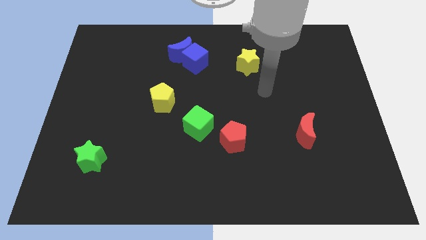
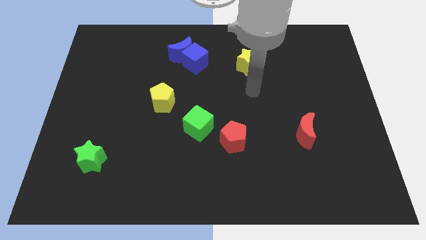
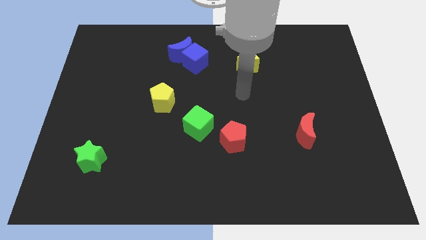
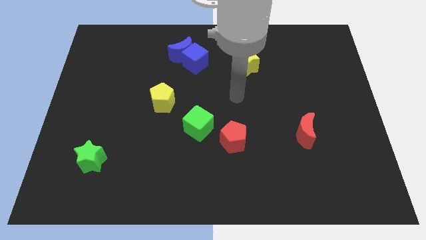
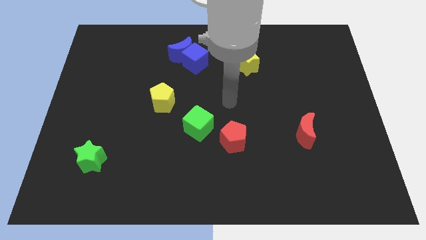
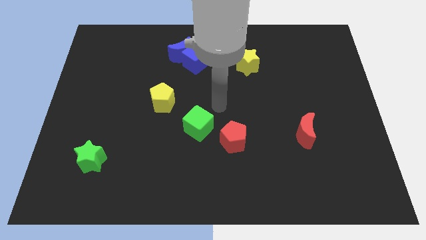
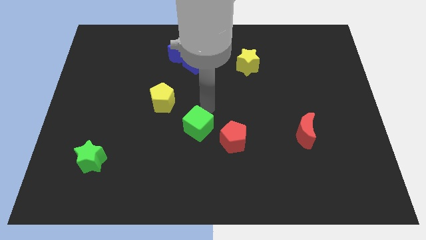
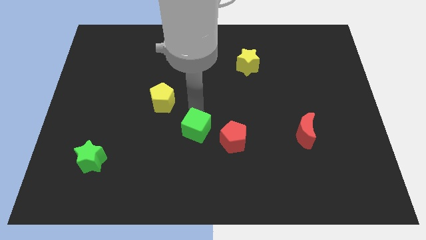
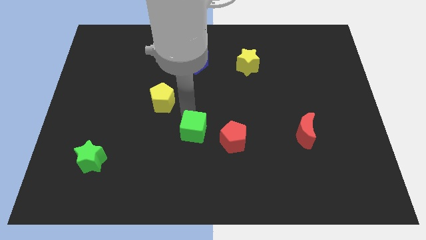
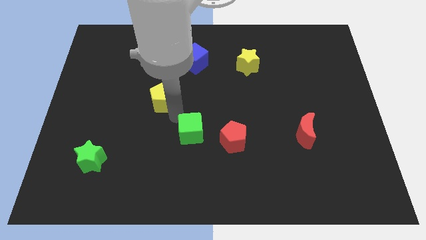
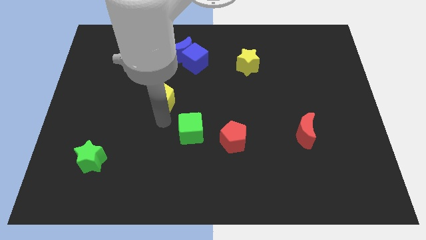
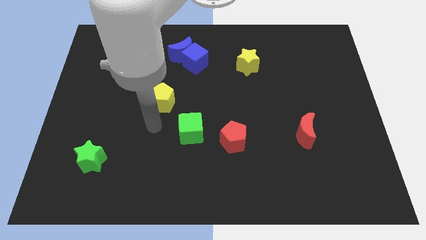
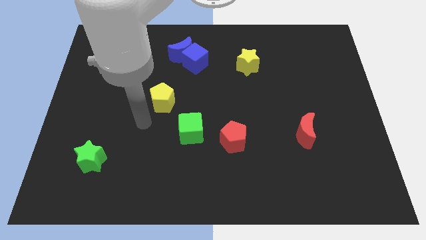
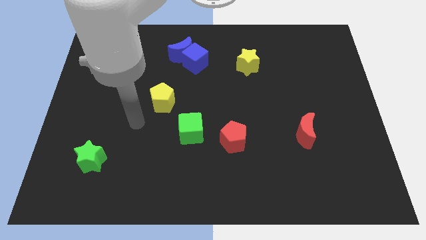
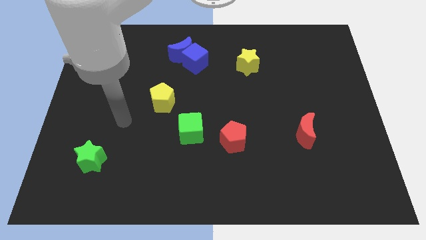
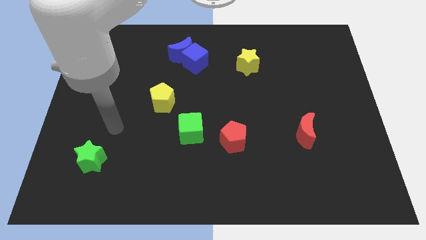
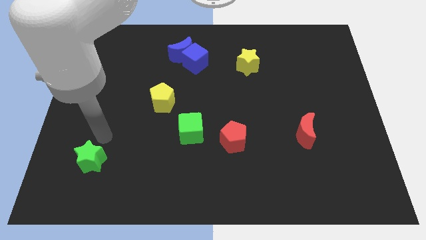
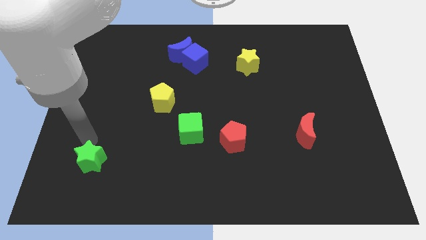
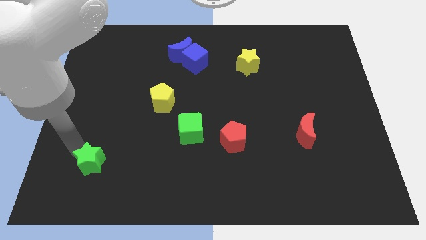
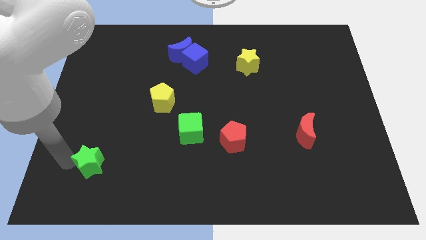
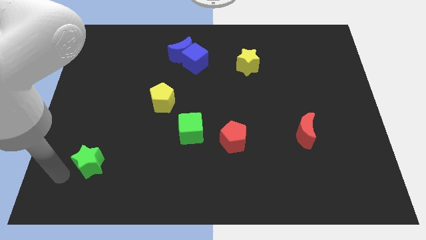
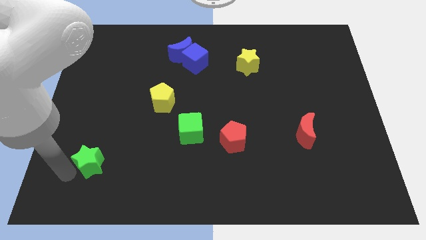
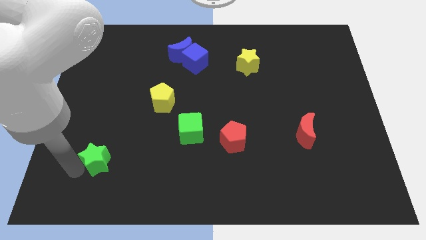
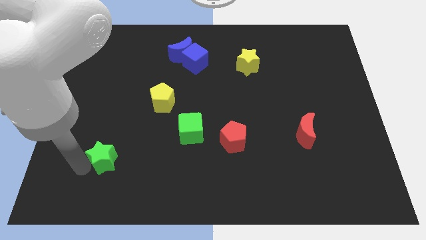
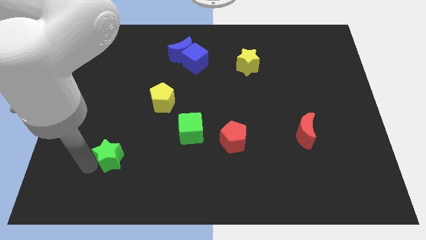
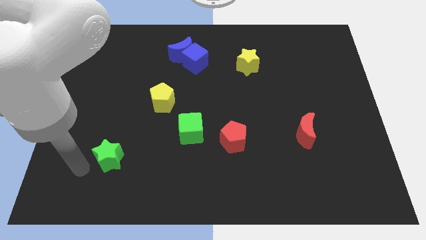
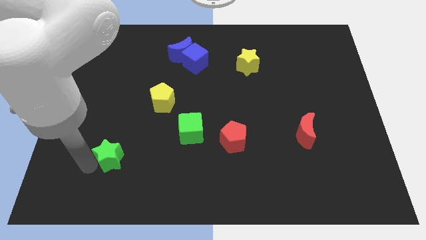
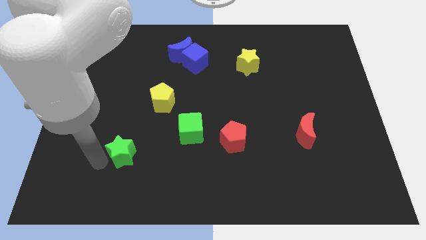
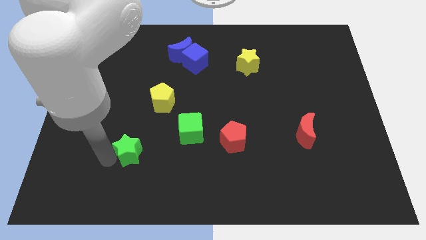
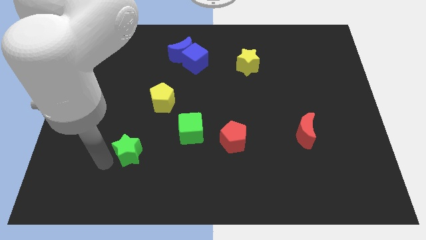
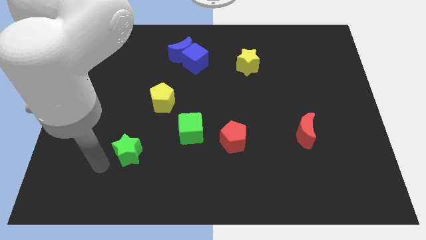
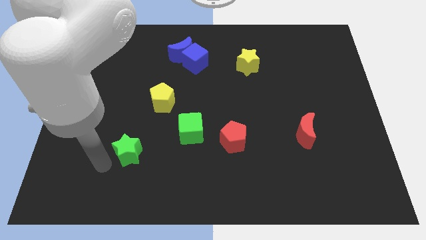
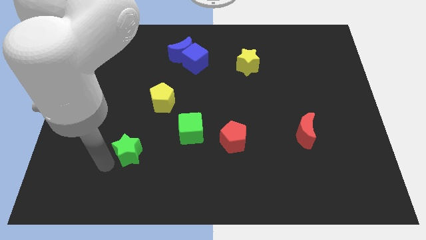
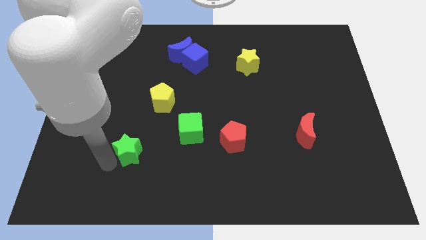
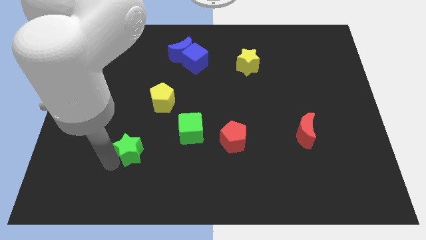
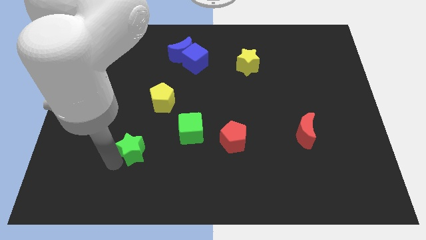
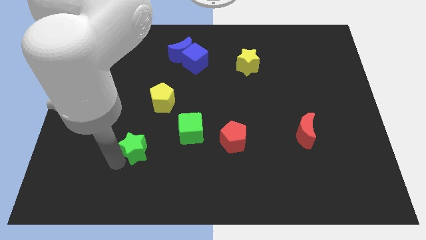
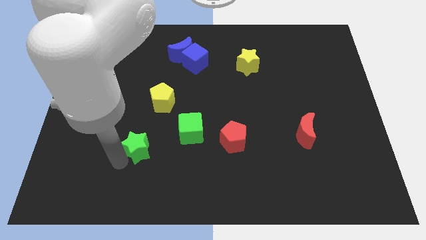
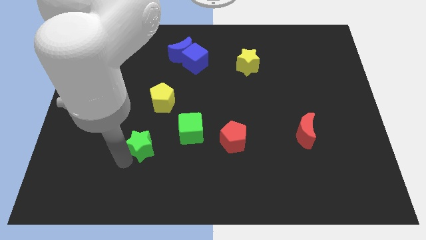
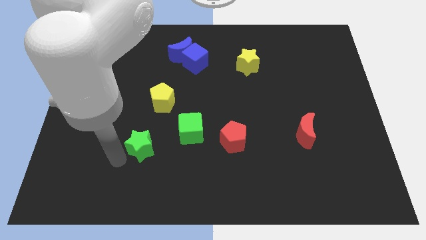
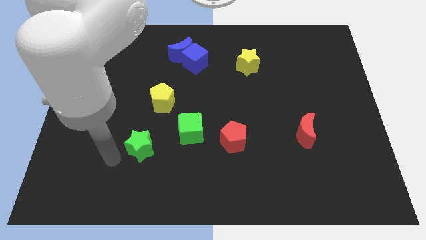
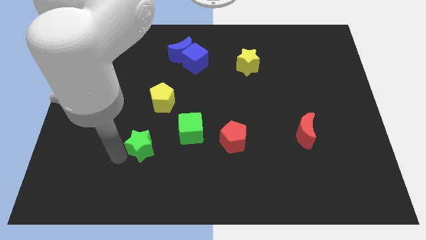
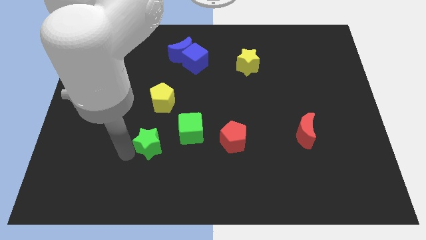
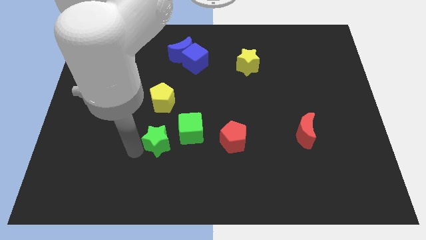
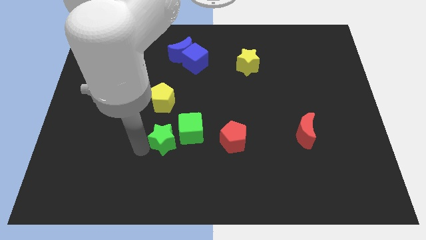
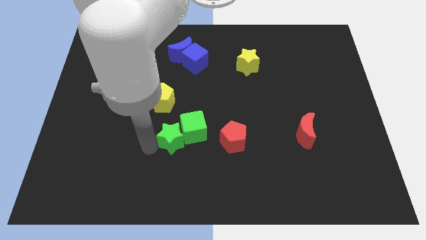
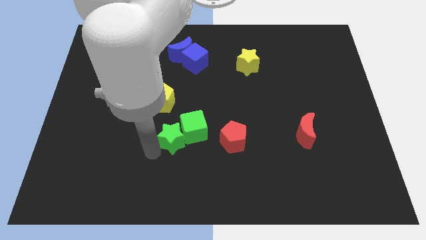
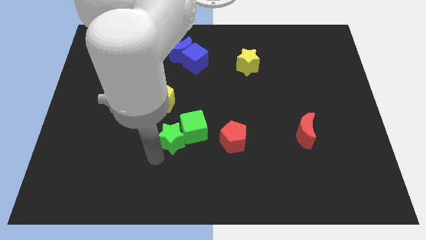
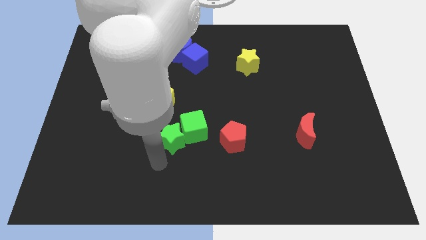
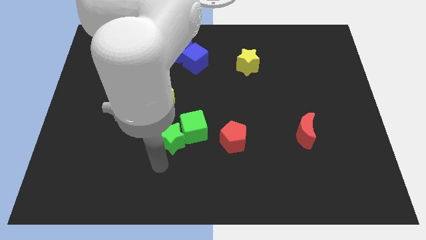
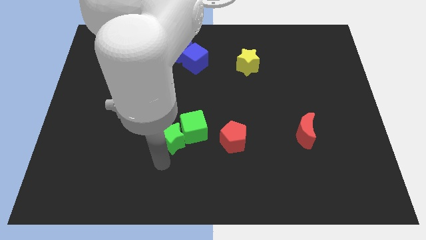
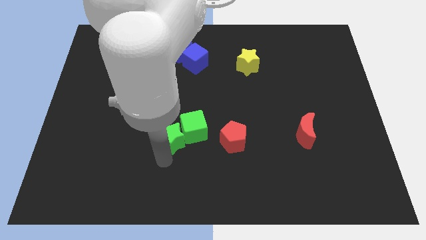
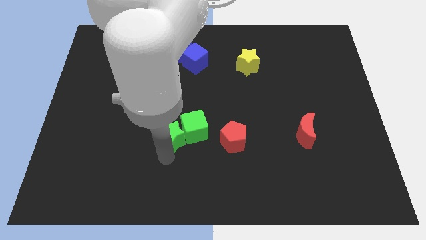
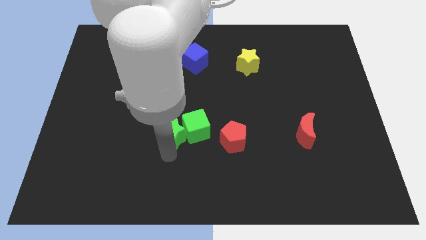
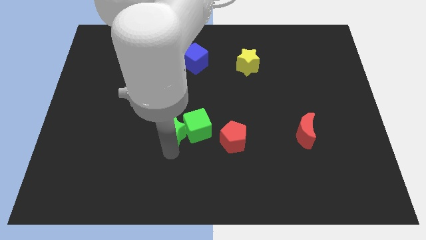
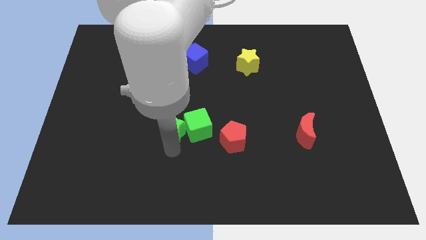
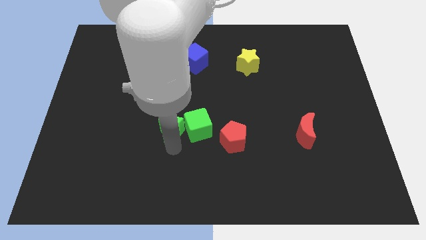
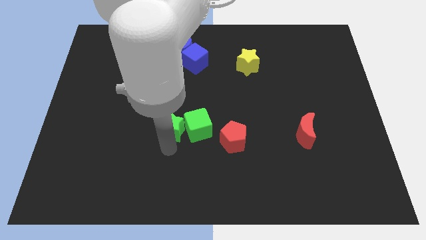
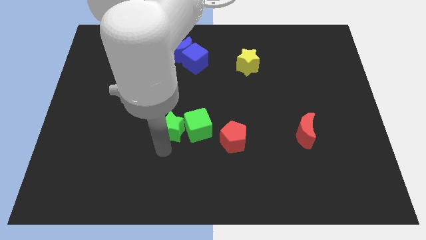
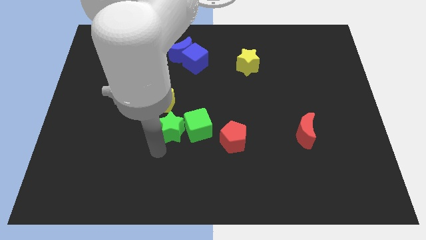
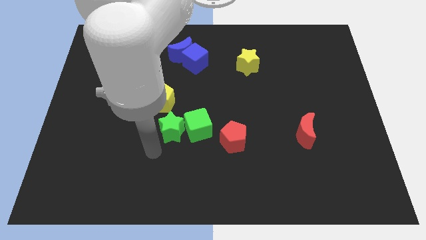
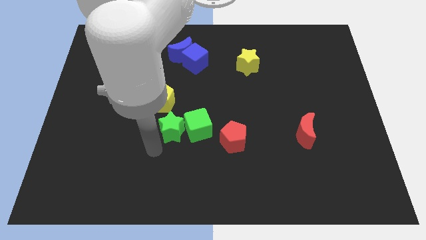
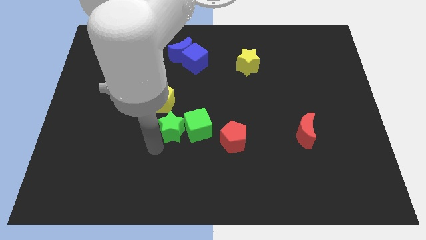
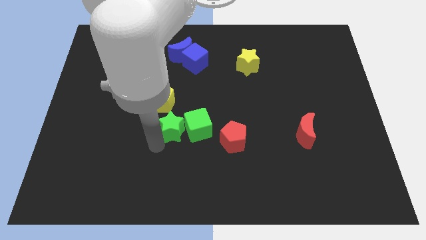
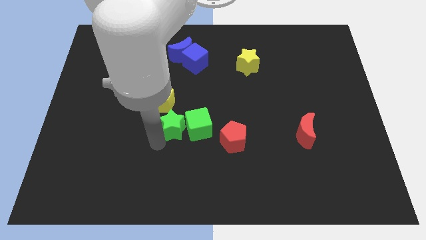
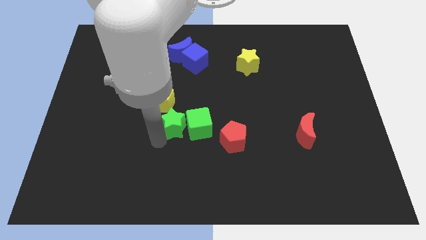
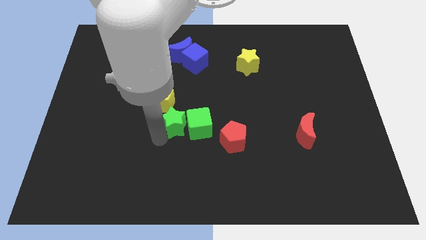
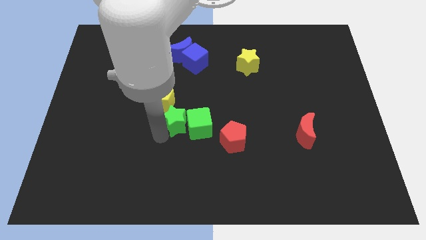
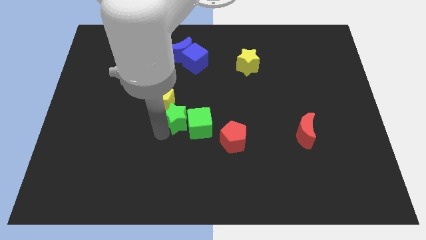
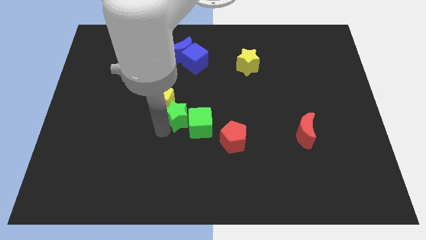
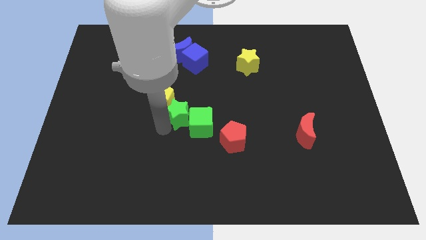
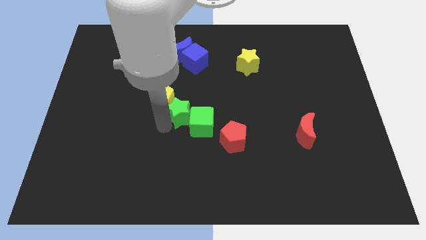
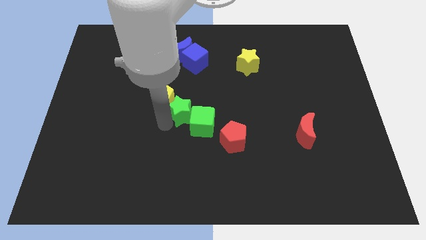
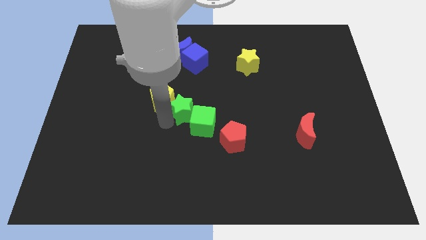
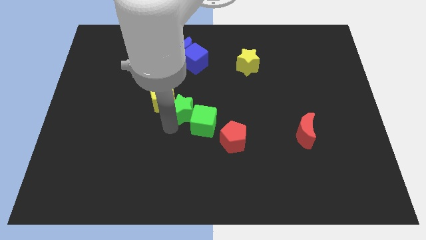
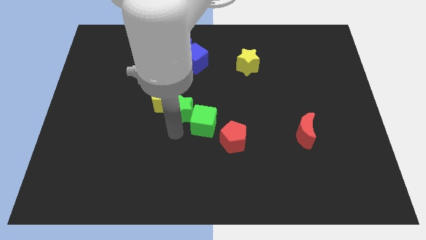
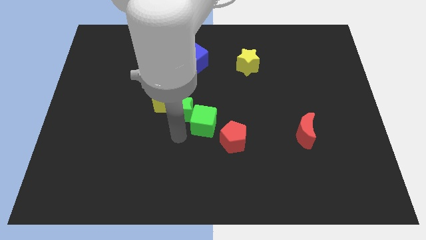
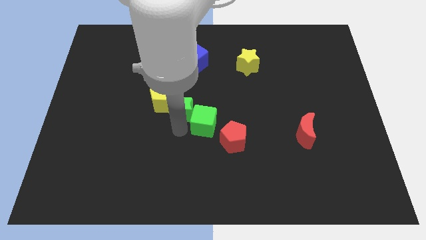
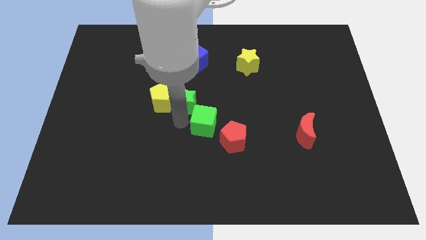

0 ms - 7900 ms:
push the green star to the top right side of the yellow pentagon

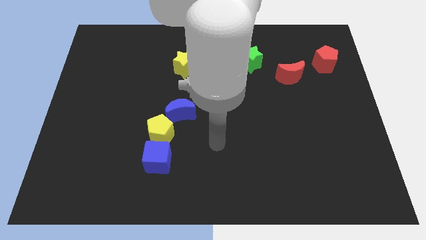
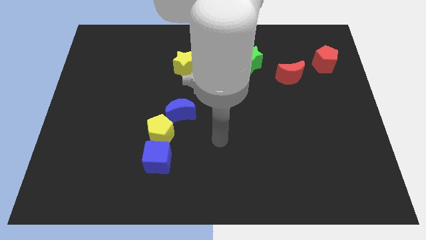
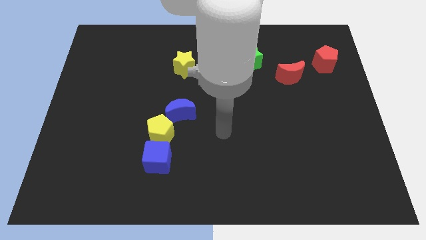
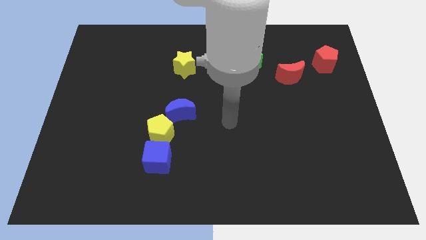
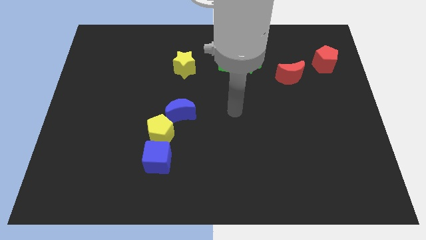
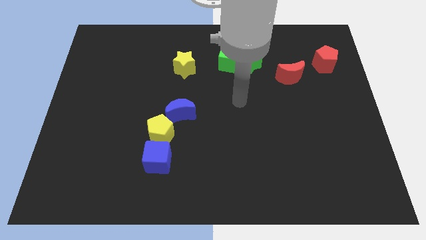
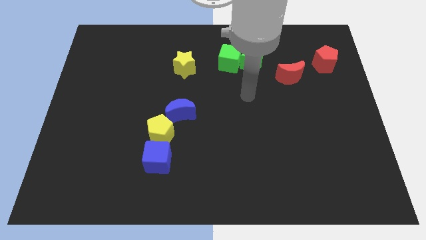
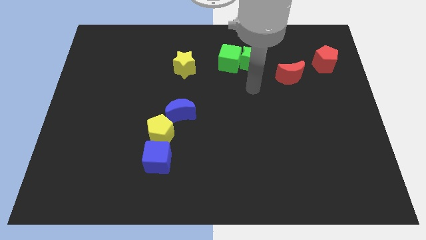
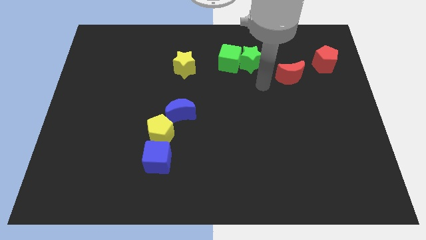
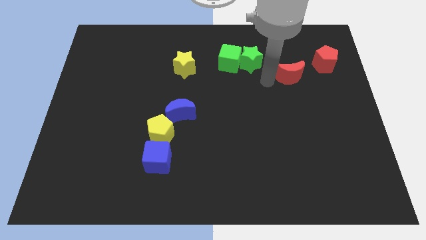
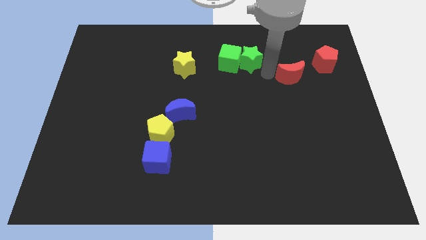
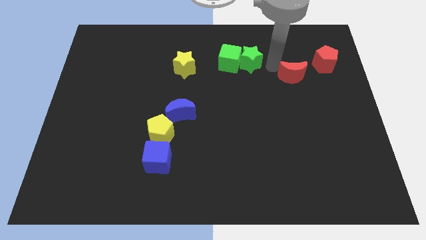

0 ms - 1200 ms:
slide the green star left of the red moon
